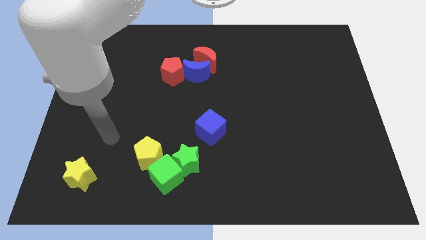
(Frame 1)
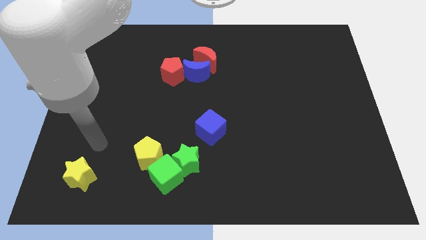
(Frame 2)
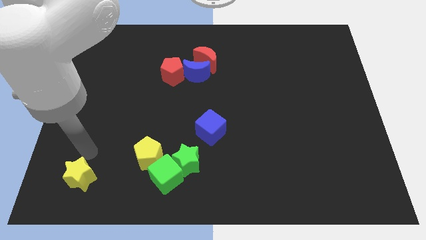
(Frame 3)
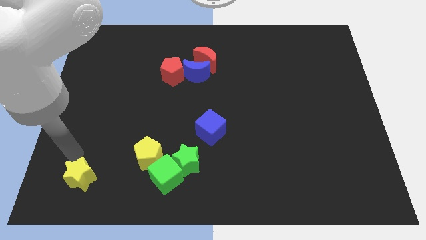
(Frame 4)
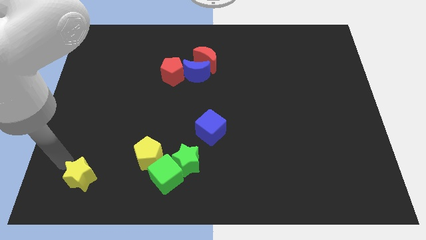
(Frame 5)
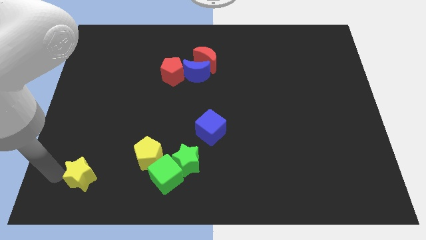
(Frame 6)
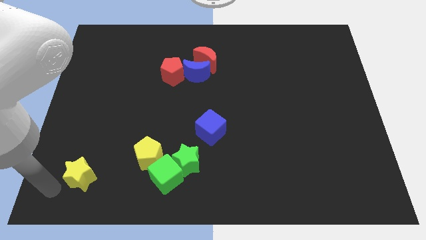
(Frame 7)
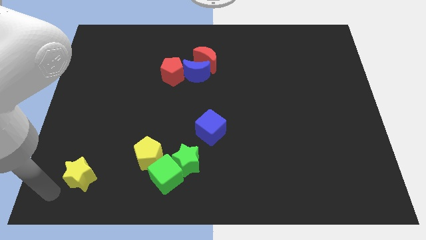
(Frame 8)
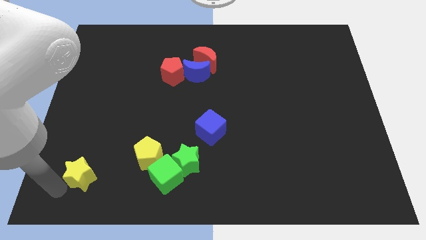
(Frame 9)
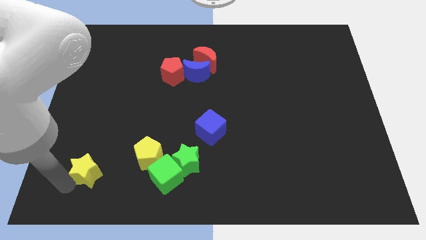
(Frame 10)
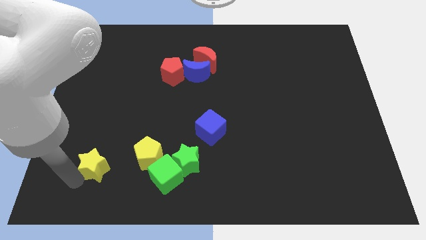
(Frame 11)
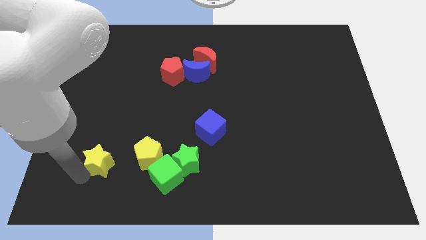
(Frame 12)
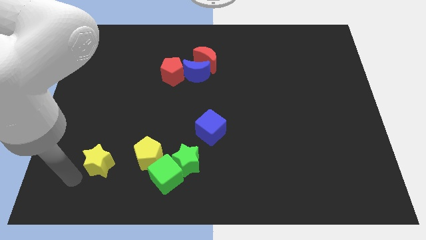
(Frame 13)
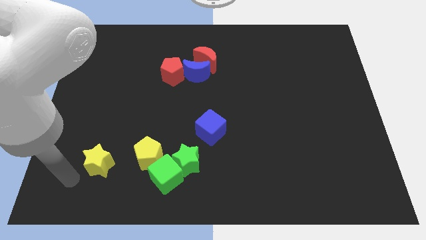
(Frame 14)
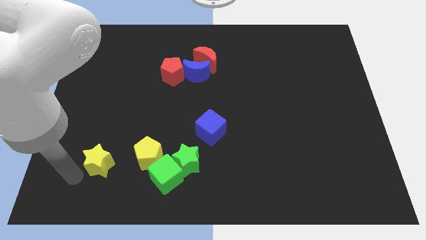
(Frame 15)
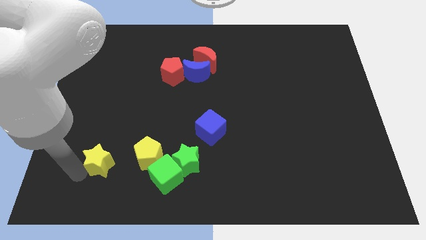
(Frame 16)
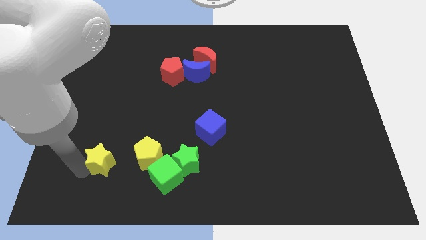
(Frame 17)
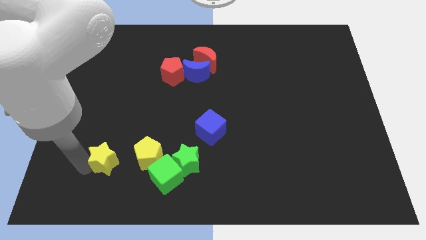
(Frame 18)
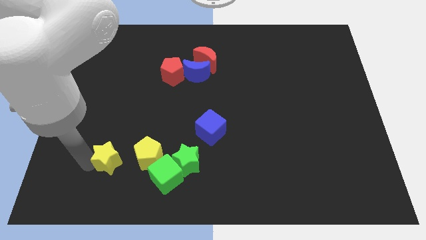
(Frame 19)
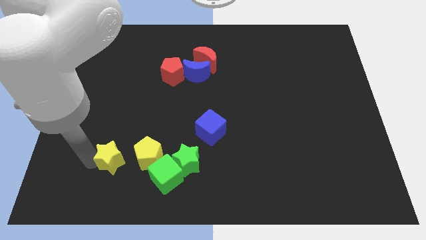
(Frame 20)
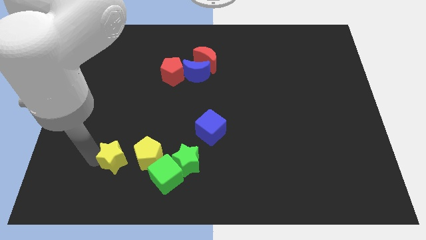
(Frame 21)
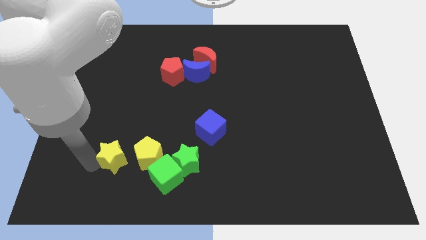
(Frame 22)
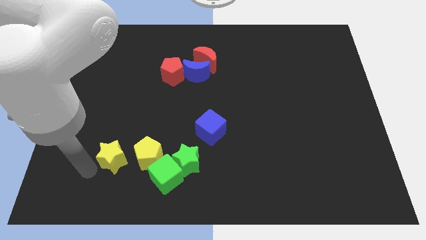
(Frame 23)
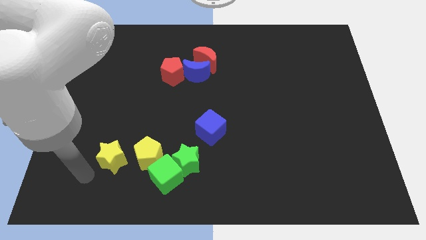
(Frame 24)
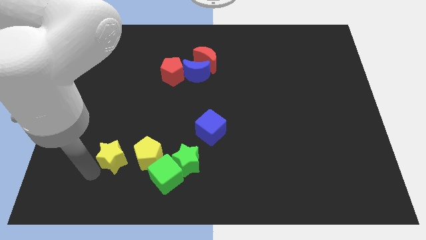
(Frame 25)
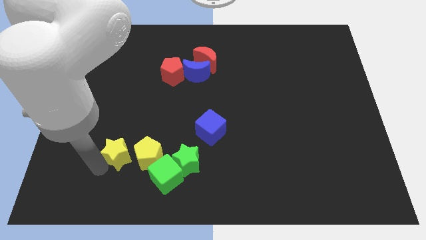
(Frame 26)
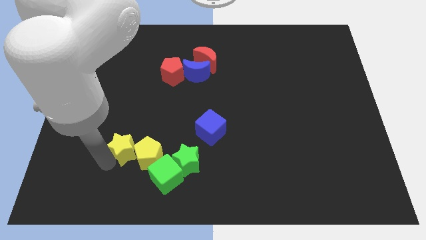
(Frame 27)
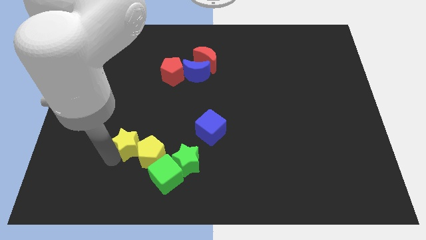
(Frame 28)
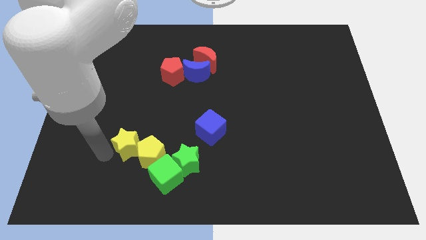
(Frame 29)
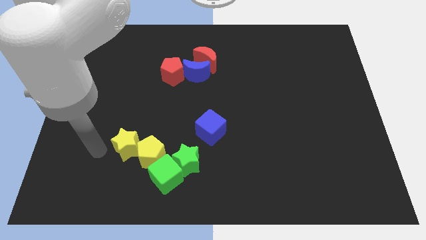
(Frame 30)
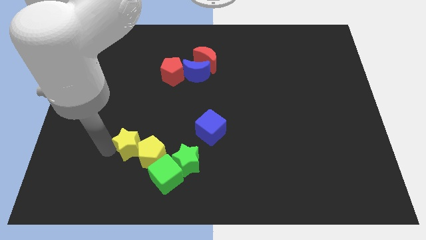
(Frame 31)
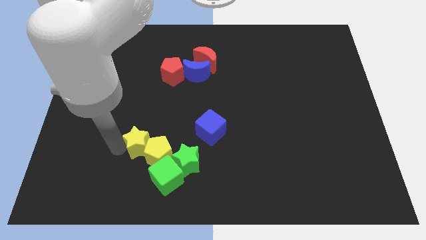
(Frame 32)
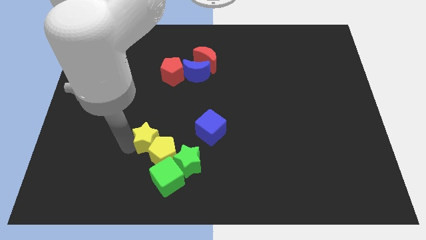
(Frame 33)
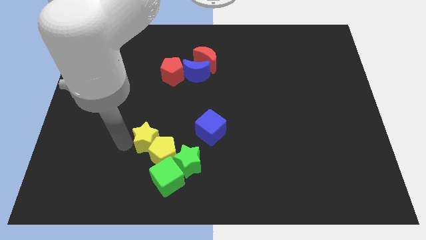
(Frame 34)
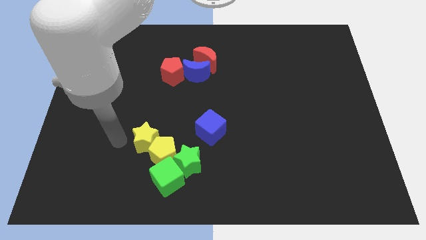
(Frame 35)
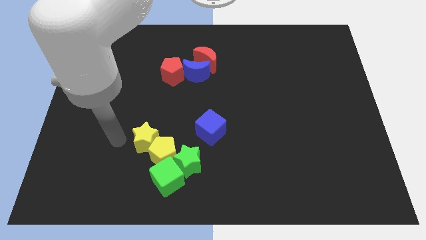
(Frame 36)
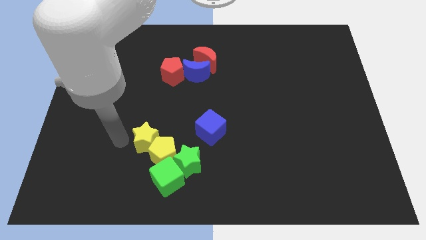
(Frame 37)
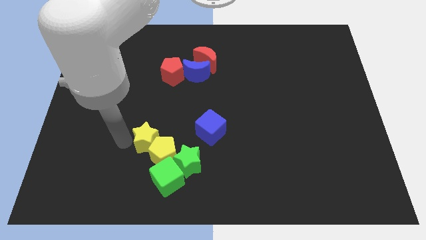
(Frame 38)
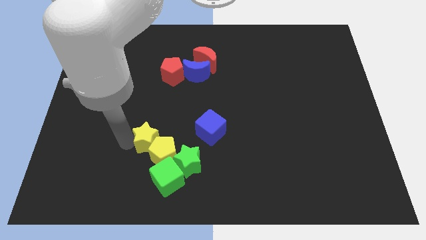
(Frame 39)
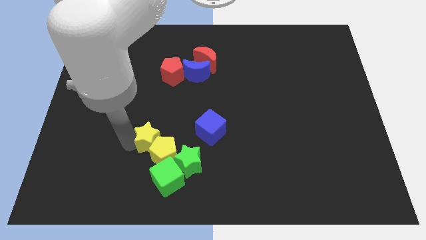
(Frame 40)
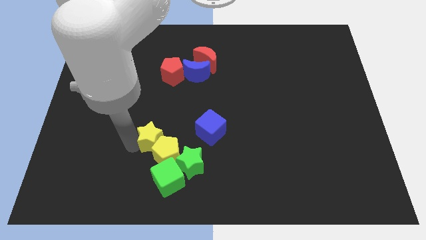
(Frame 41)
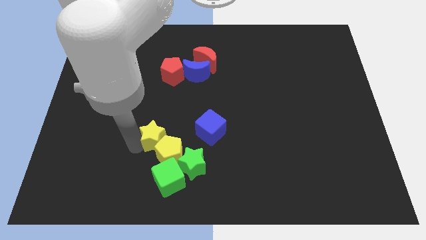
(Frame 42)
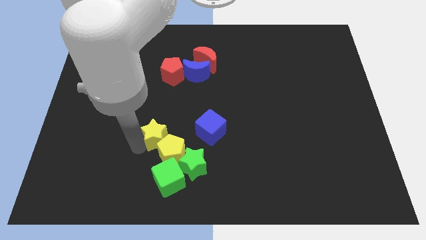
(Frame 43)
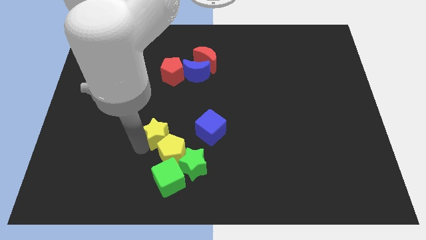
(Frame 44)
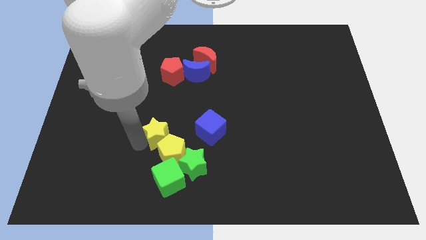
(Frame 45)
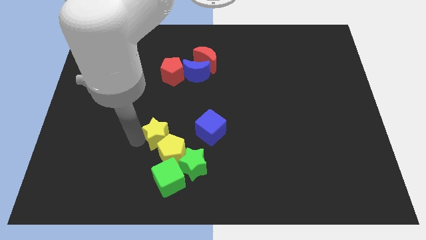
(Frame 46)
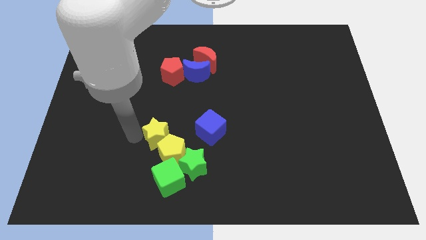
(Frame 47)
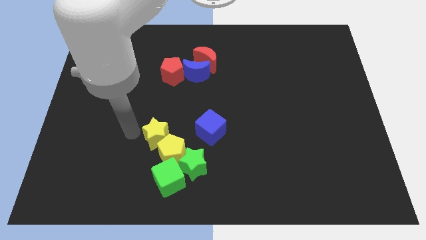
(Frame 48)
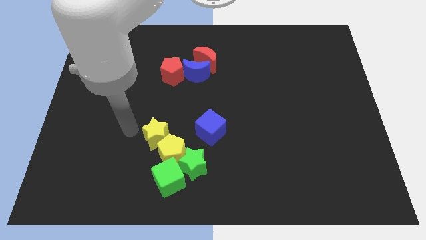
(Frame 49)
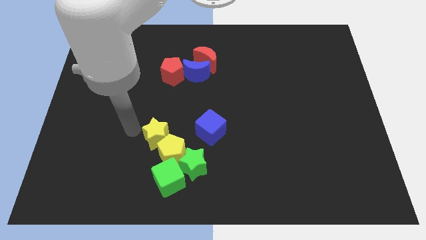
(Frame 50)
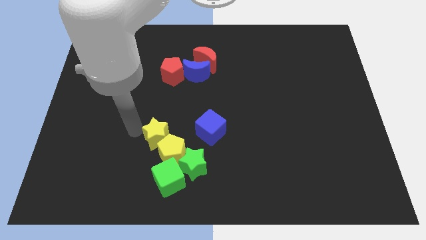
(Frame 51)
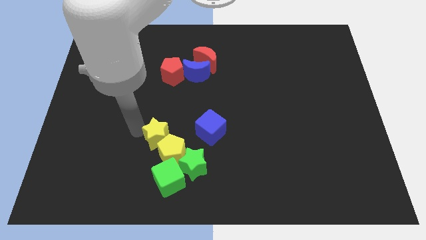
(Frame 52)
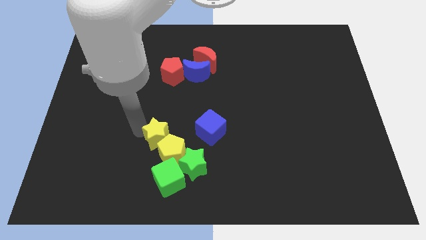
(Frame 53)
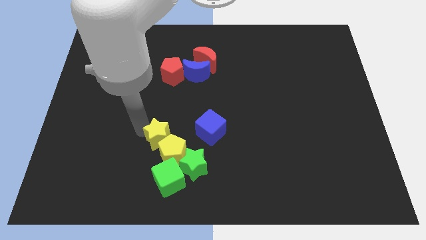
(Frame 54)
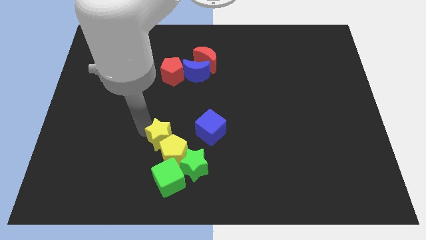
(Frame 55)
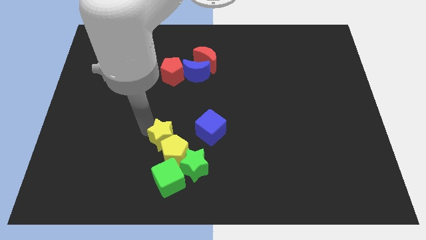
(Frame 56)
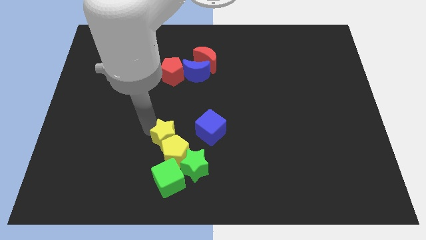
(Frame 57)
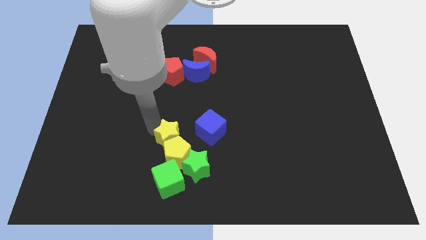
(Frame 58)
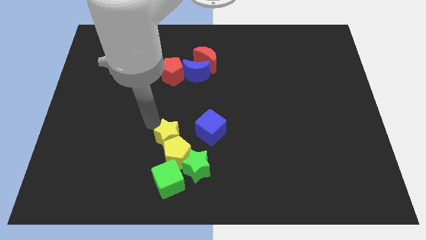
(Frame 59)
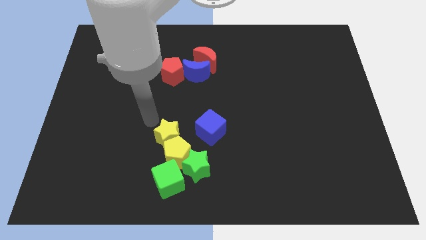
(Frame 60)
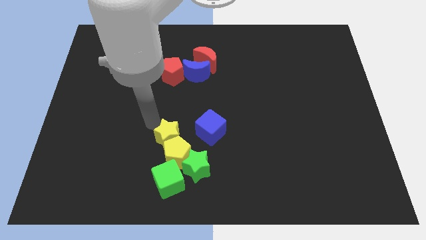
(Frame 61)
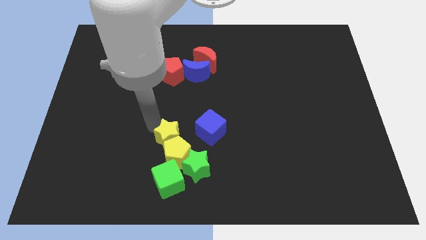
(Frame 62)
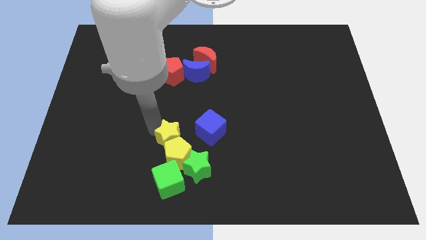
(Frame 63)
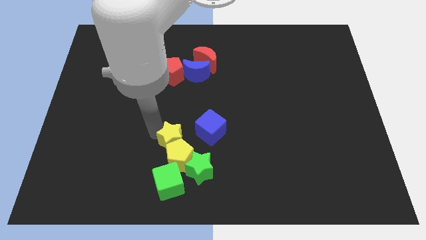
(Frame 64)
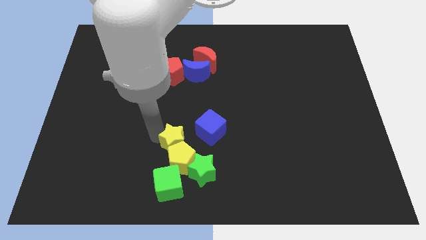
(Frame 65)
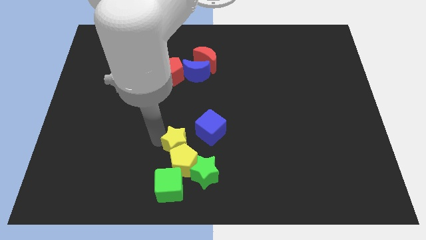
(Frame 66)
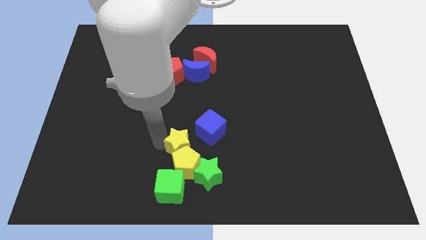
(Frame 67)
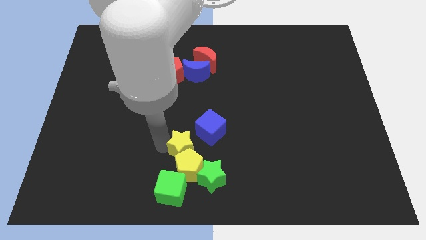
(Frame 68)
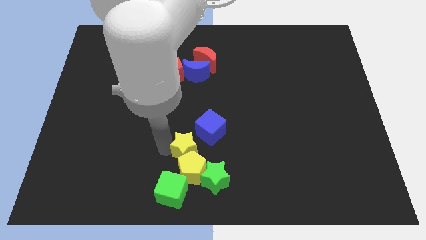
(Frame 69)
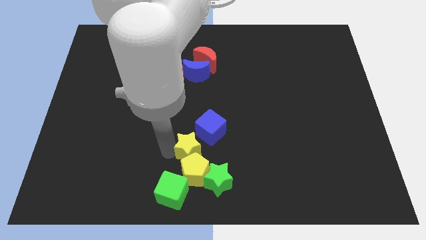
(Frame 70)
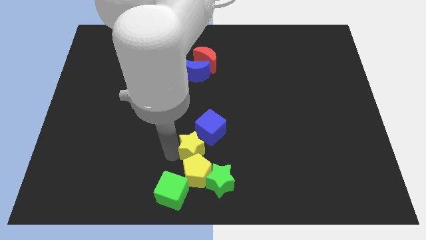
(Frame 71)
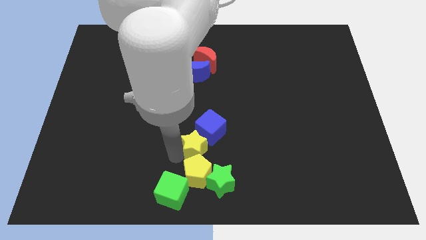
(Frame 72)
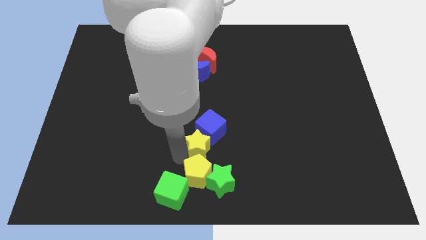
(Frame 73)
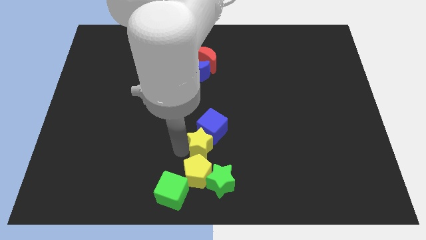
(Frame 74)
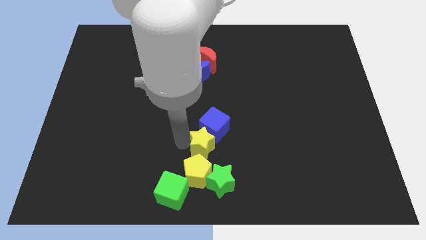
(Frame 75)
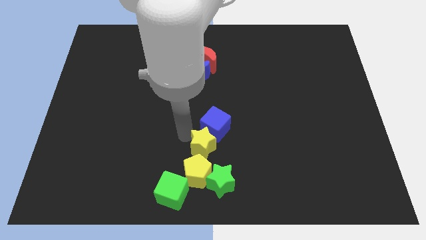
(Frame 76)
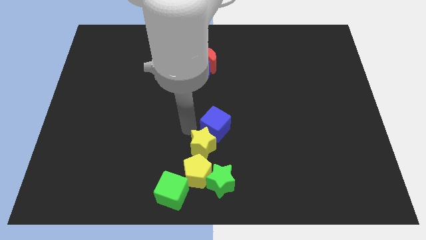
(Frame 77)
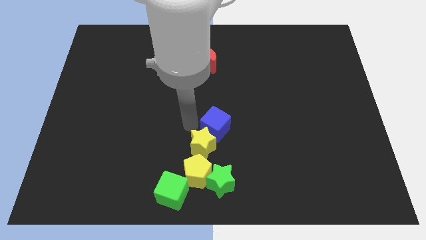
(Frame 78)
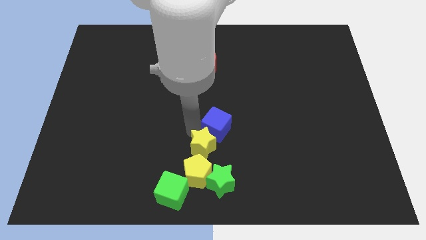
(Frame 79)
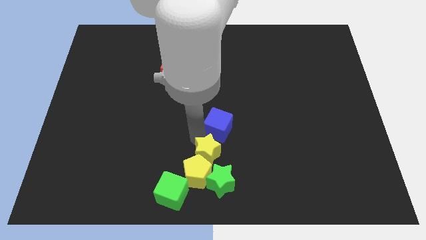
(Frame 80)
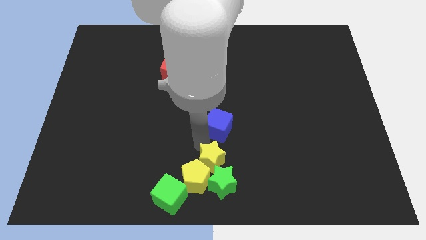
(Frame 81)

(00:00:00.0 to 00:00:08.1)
put the yellow star to the green star
